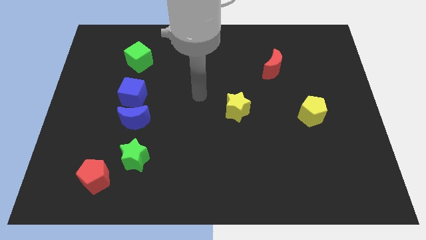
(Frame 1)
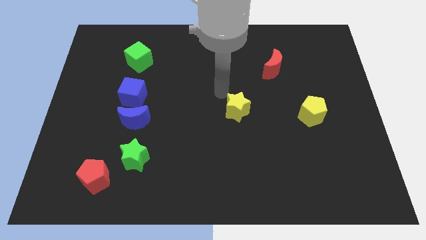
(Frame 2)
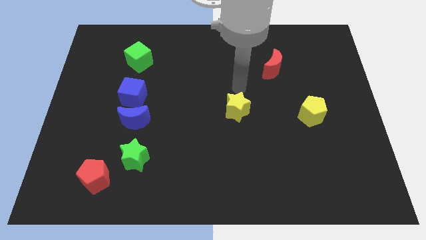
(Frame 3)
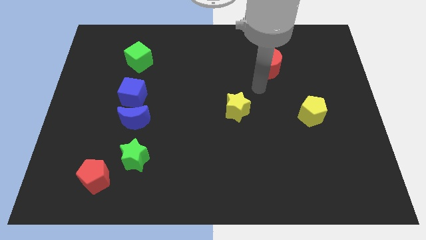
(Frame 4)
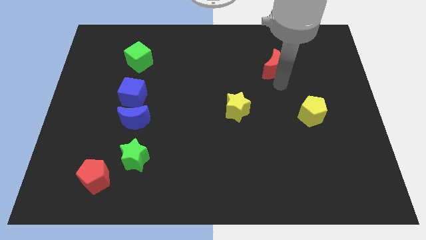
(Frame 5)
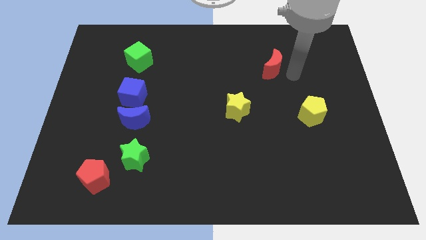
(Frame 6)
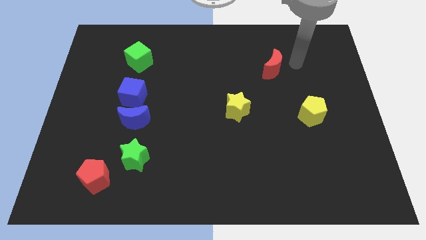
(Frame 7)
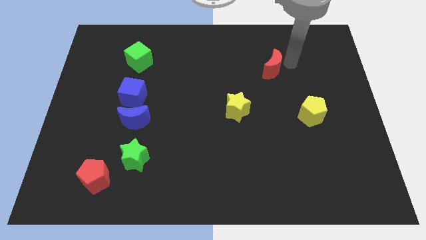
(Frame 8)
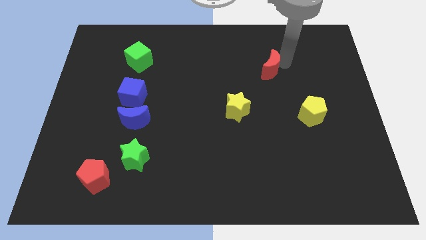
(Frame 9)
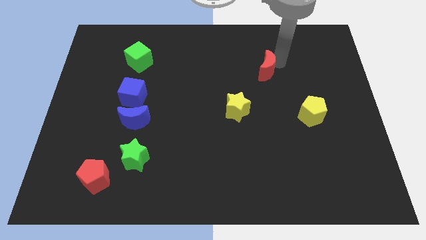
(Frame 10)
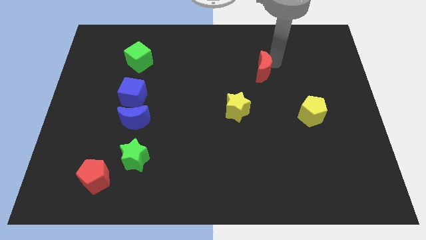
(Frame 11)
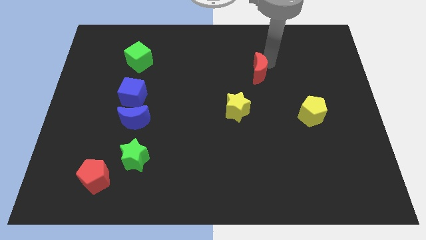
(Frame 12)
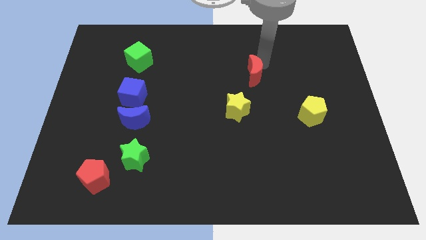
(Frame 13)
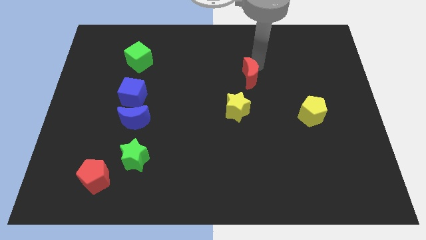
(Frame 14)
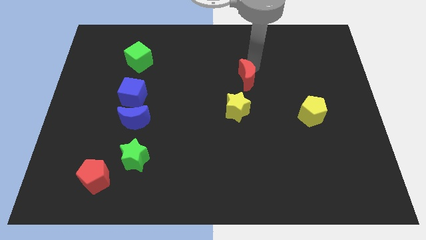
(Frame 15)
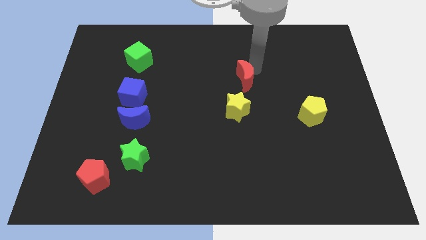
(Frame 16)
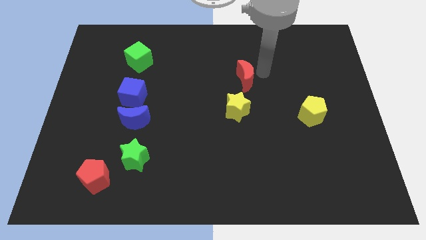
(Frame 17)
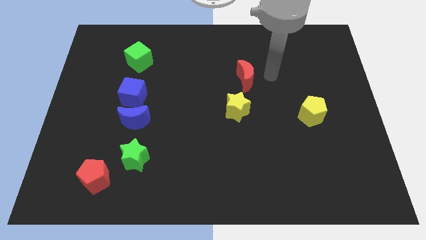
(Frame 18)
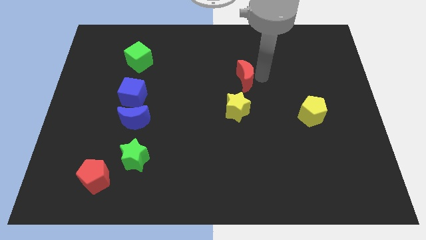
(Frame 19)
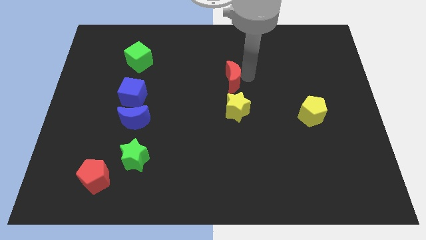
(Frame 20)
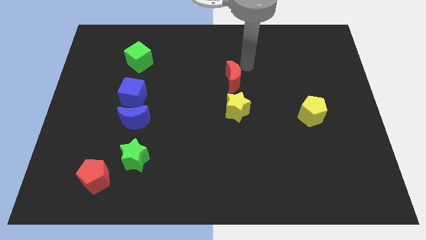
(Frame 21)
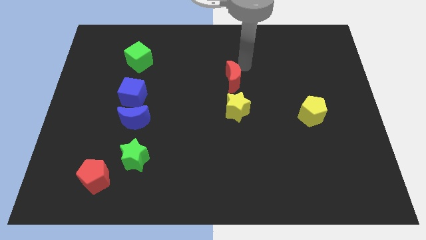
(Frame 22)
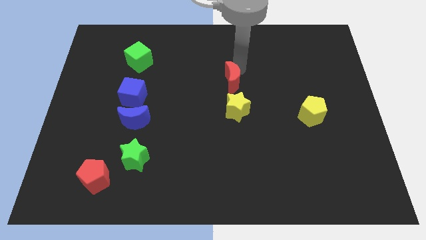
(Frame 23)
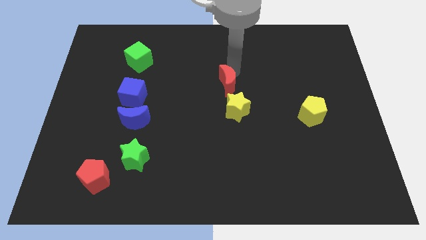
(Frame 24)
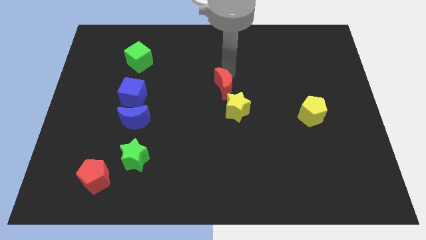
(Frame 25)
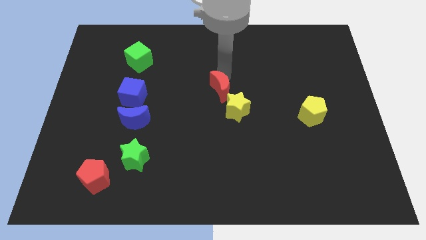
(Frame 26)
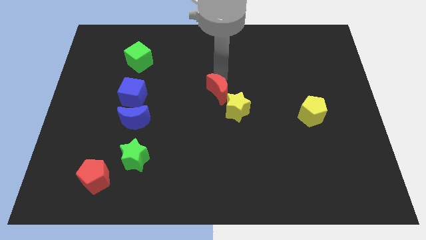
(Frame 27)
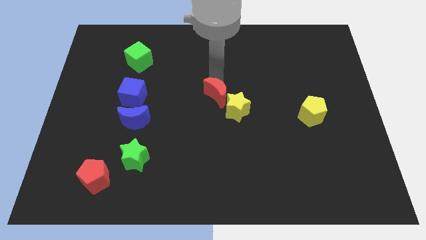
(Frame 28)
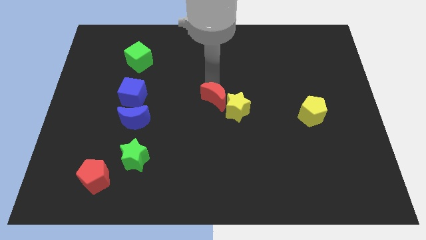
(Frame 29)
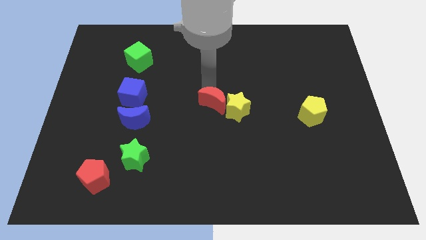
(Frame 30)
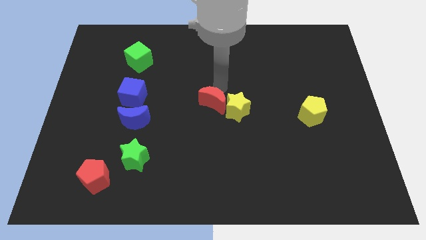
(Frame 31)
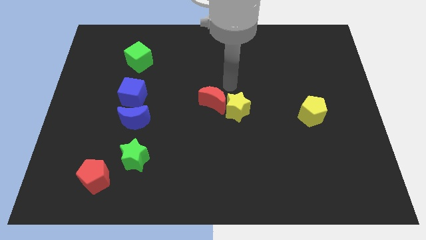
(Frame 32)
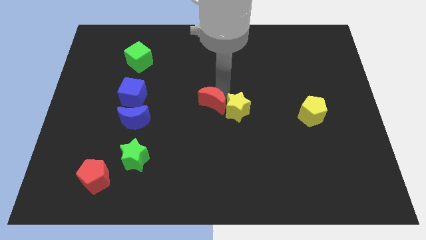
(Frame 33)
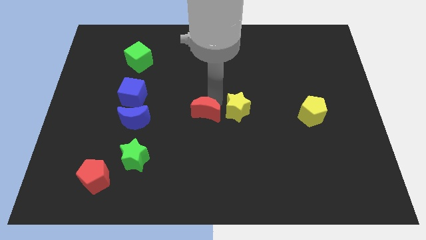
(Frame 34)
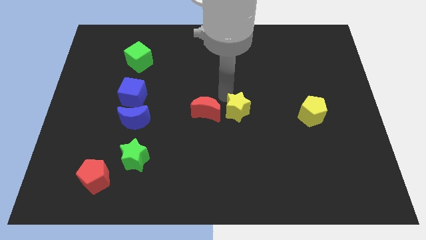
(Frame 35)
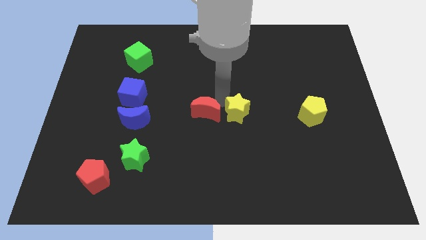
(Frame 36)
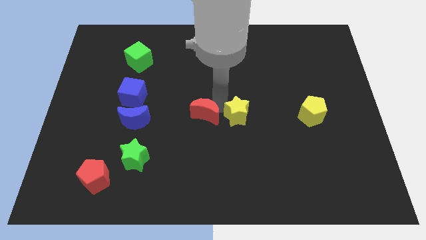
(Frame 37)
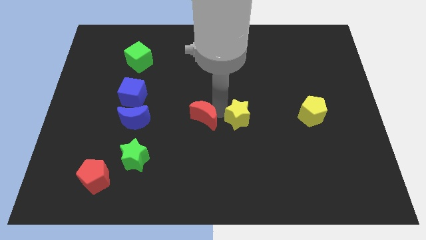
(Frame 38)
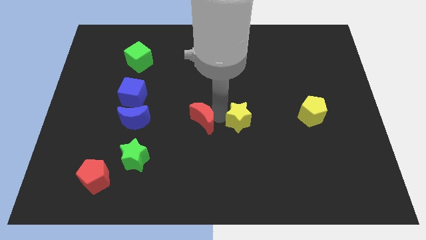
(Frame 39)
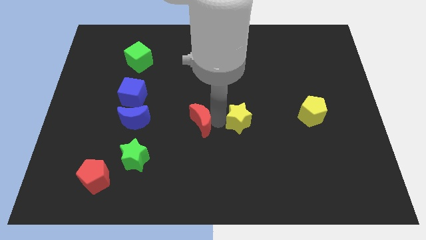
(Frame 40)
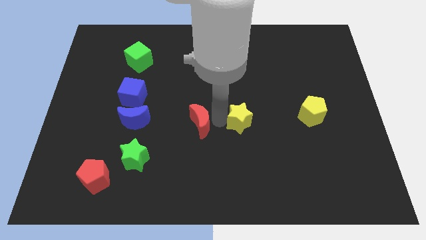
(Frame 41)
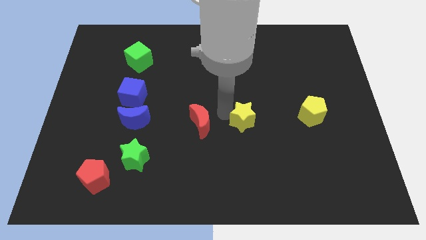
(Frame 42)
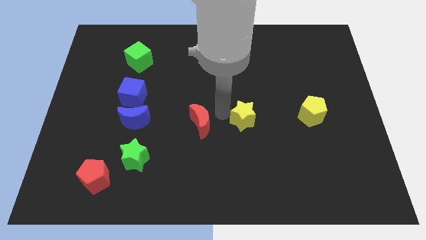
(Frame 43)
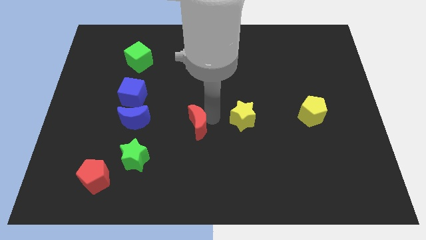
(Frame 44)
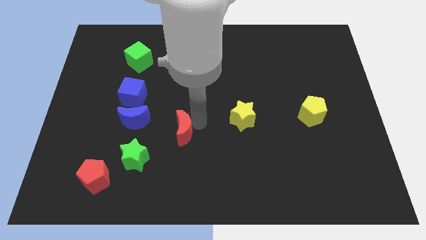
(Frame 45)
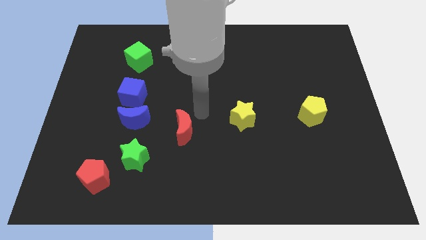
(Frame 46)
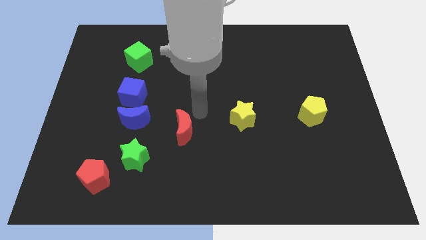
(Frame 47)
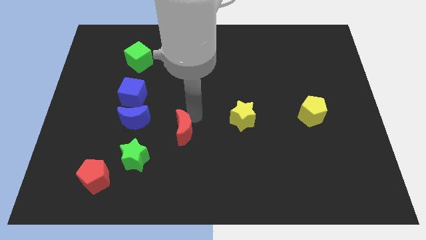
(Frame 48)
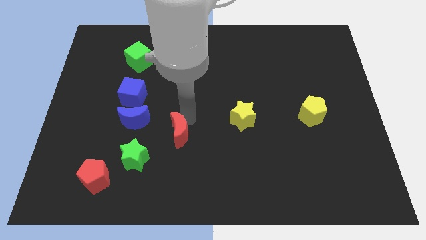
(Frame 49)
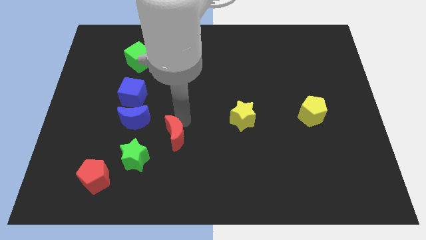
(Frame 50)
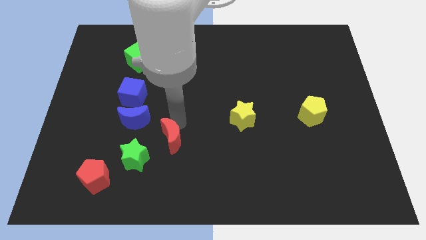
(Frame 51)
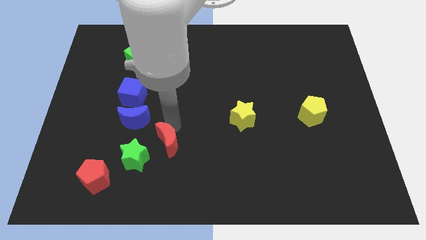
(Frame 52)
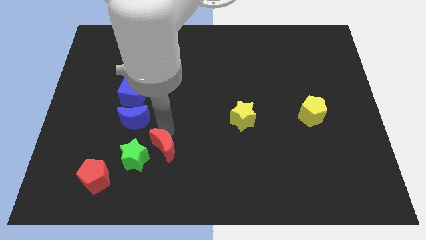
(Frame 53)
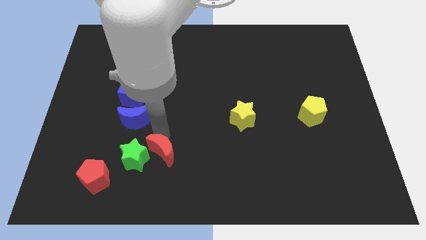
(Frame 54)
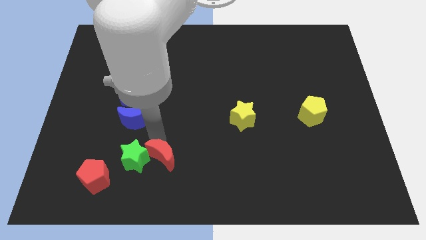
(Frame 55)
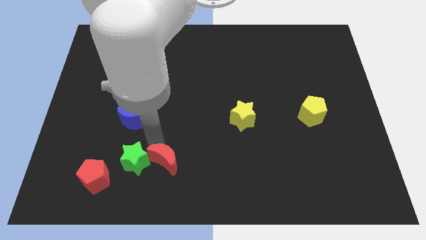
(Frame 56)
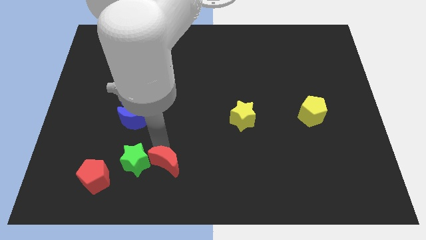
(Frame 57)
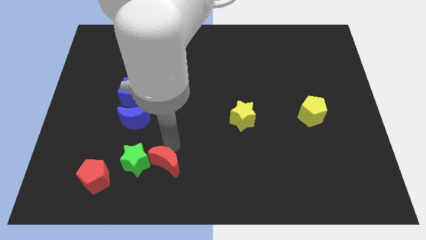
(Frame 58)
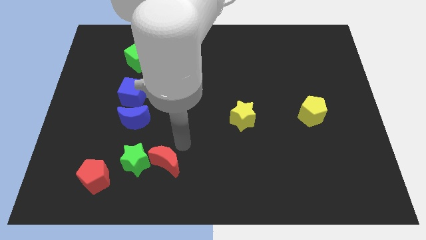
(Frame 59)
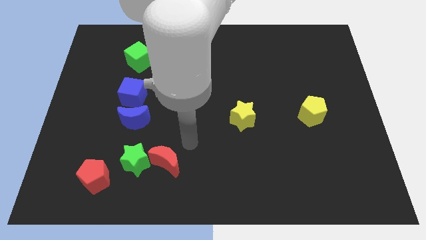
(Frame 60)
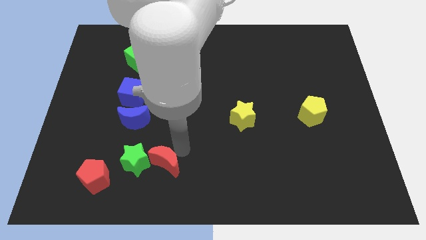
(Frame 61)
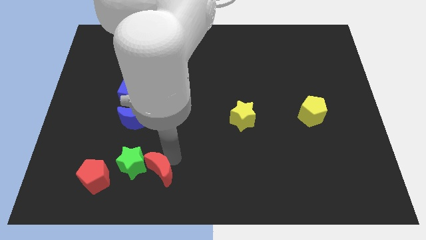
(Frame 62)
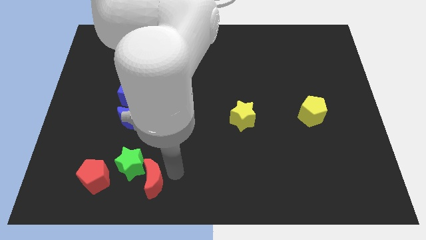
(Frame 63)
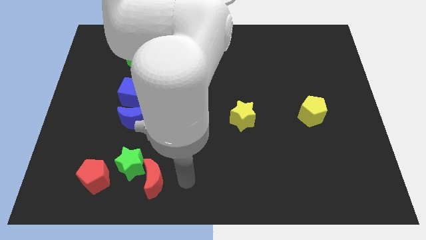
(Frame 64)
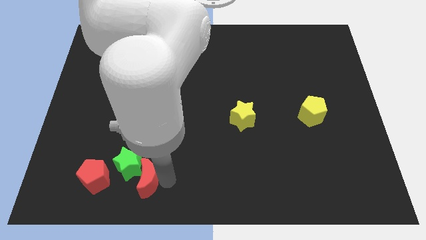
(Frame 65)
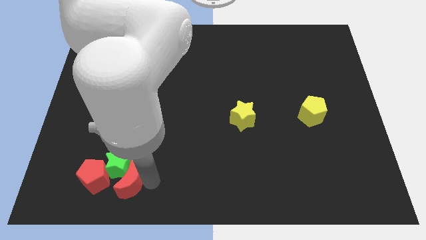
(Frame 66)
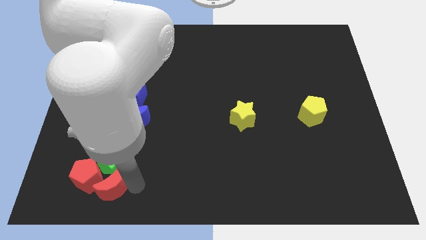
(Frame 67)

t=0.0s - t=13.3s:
push the red moon towards the red pentagon

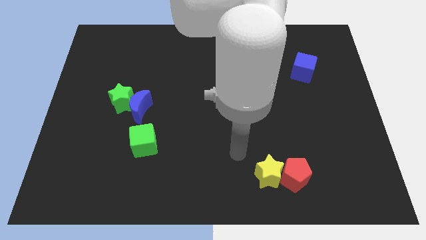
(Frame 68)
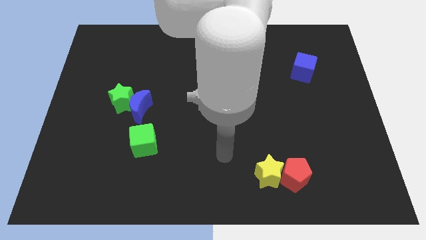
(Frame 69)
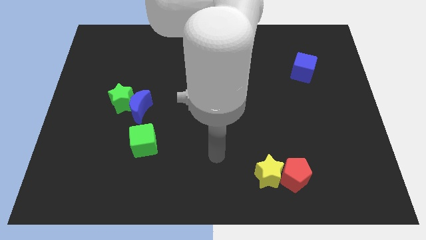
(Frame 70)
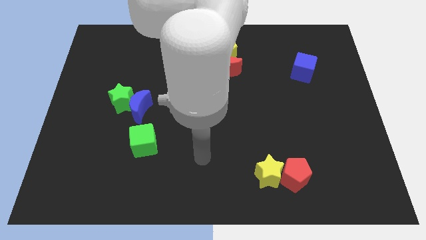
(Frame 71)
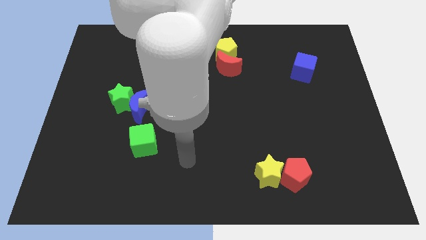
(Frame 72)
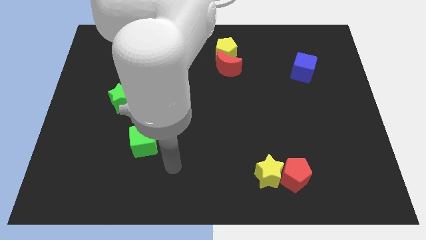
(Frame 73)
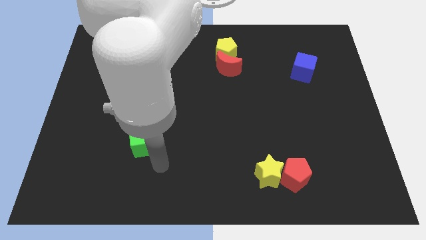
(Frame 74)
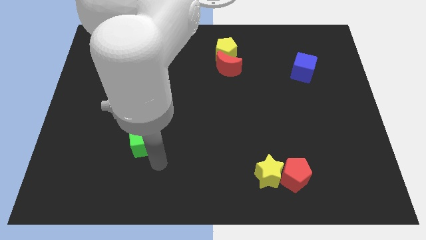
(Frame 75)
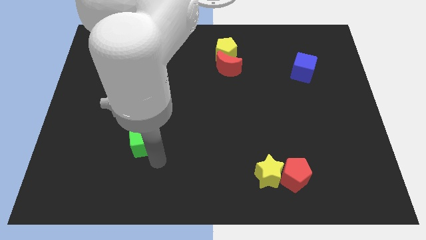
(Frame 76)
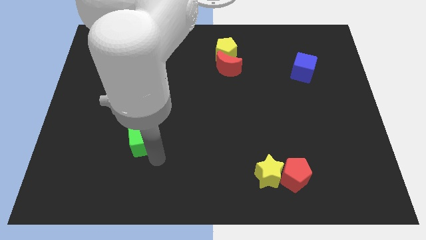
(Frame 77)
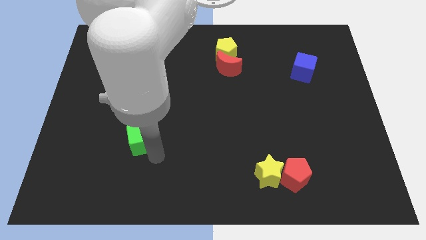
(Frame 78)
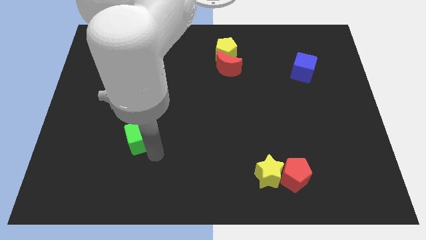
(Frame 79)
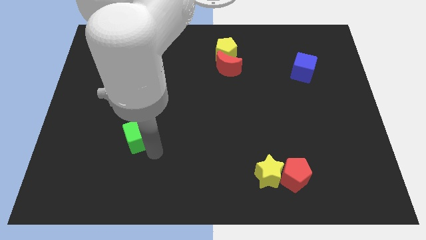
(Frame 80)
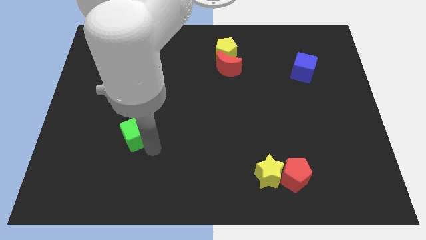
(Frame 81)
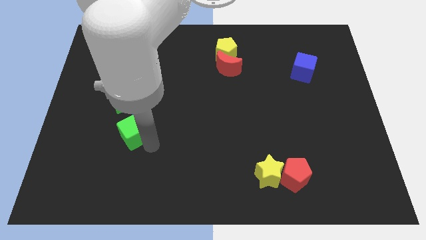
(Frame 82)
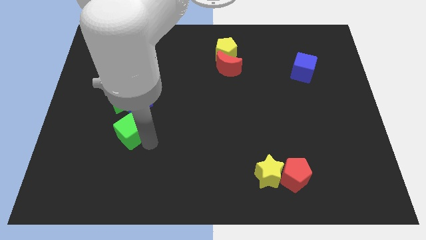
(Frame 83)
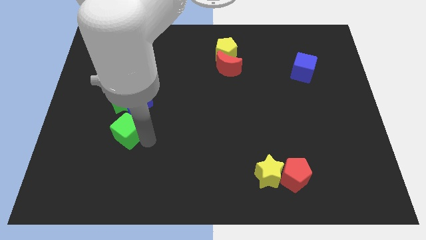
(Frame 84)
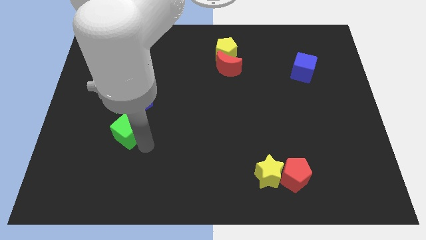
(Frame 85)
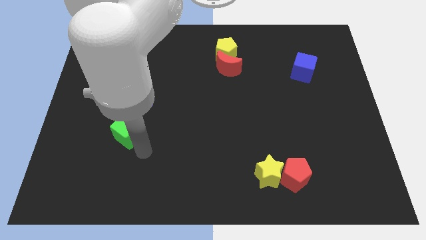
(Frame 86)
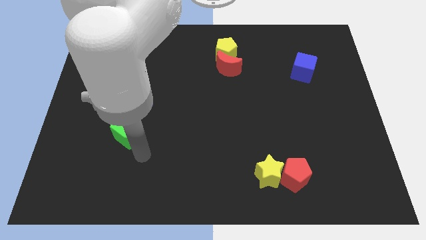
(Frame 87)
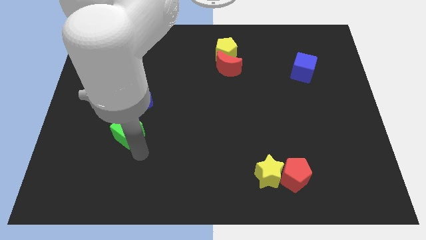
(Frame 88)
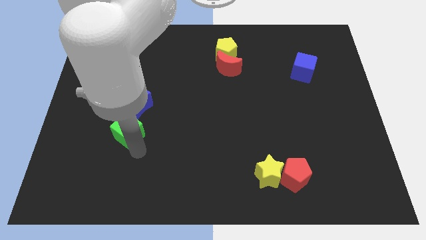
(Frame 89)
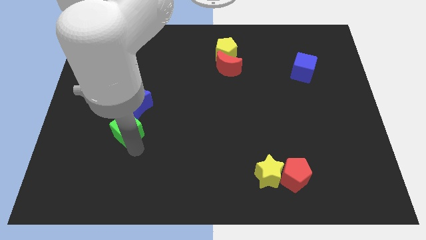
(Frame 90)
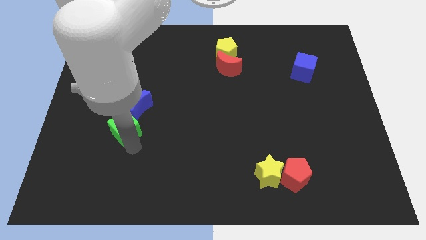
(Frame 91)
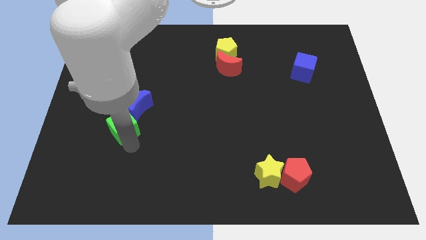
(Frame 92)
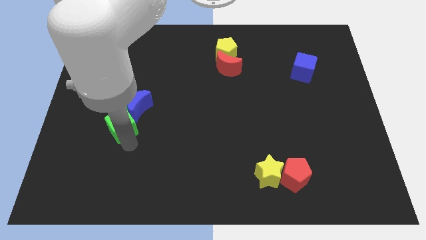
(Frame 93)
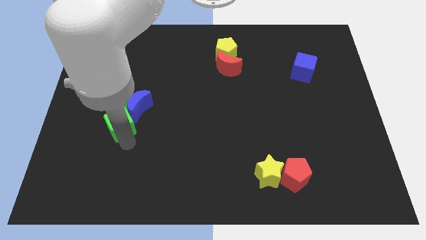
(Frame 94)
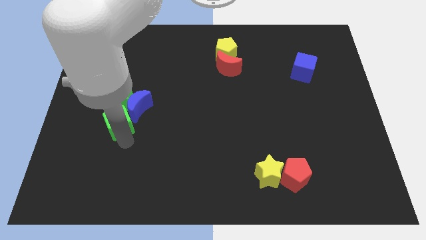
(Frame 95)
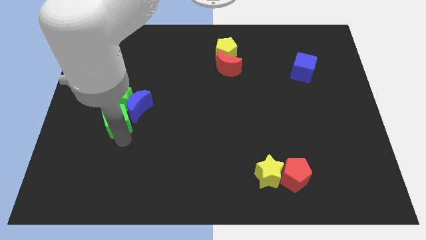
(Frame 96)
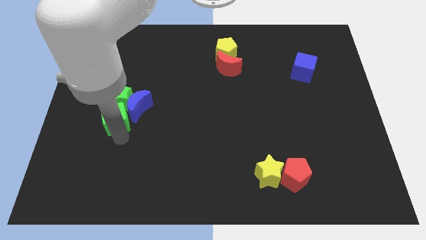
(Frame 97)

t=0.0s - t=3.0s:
slide the green cube next to the green star
